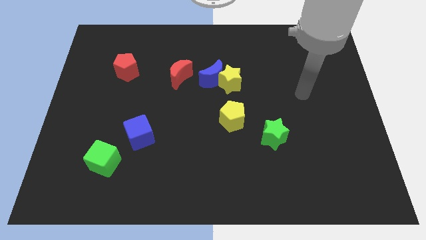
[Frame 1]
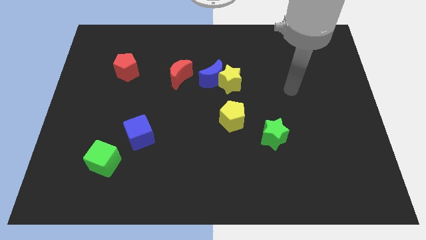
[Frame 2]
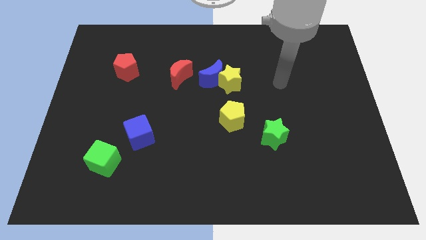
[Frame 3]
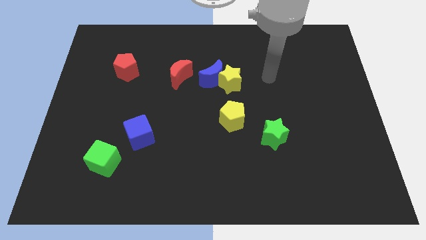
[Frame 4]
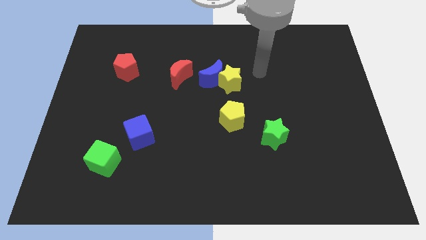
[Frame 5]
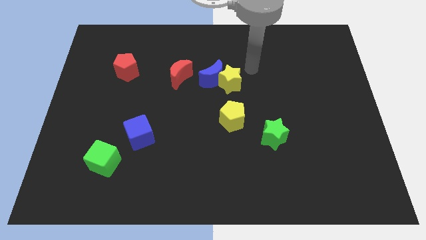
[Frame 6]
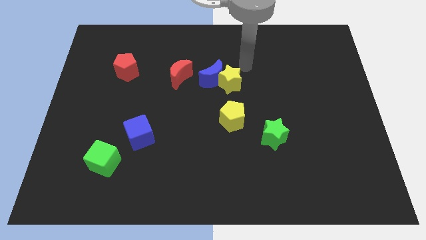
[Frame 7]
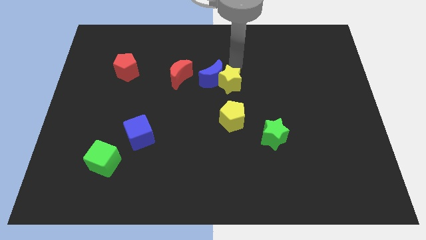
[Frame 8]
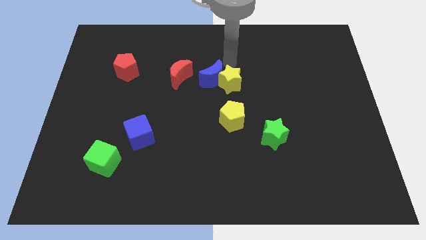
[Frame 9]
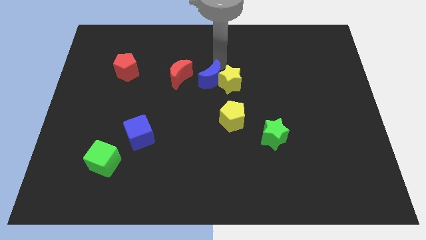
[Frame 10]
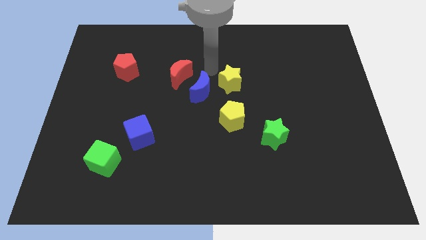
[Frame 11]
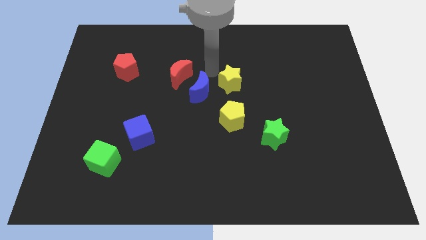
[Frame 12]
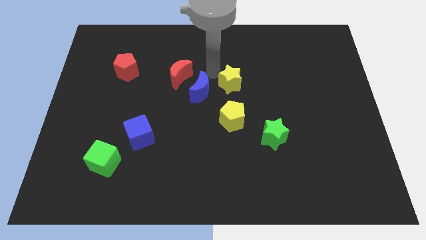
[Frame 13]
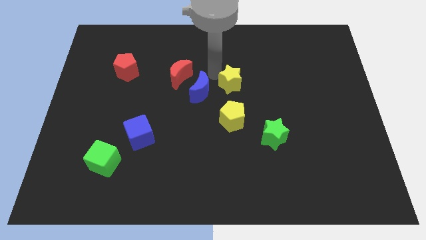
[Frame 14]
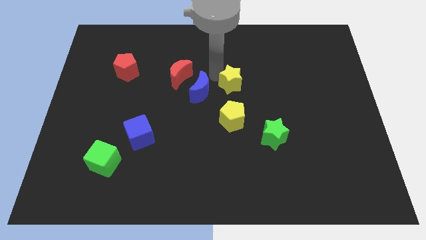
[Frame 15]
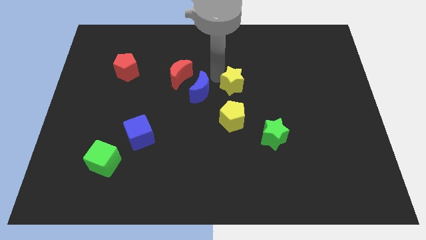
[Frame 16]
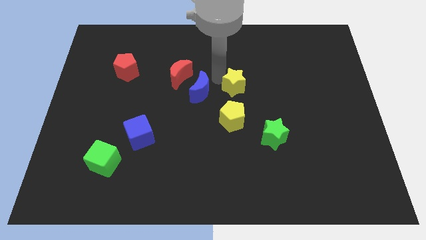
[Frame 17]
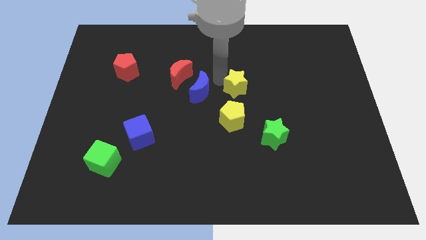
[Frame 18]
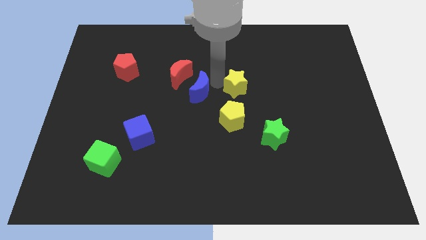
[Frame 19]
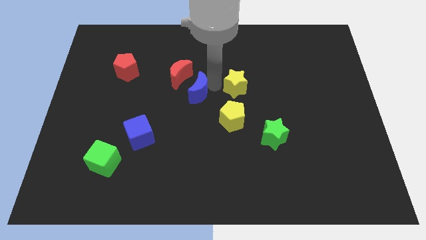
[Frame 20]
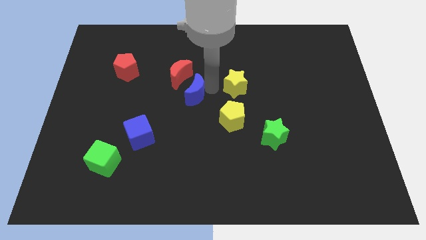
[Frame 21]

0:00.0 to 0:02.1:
move the yellow star away from the blue moon

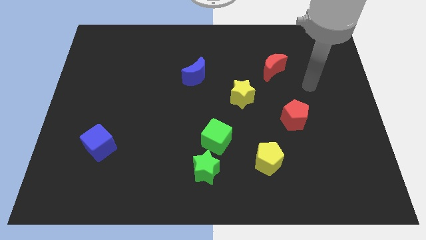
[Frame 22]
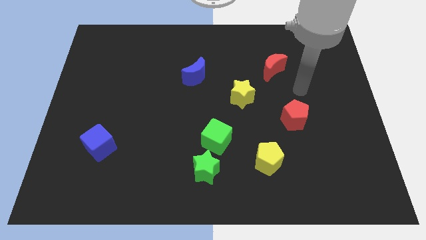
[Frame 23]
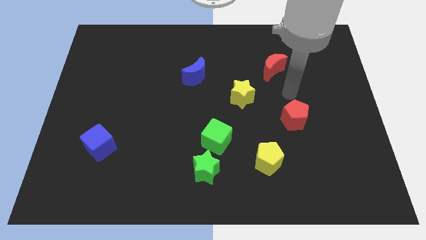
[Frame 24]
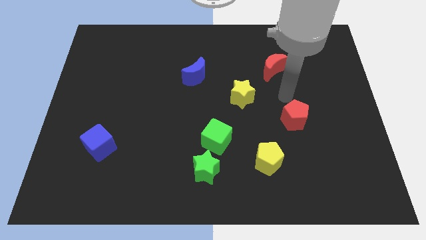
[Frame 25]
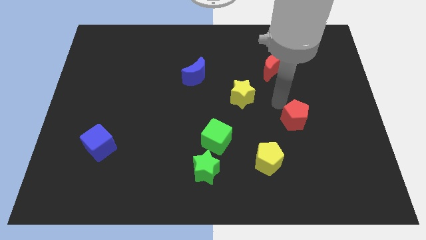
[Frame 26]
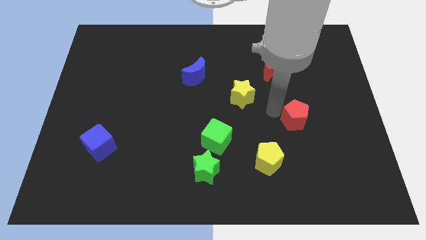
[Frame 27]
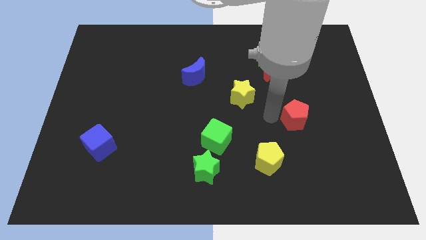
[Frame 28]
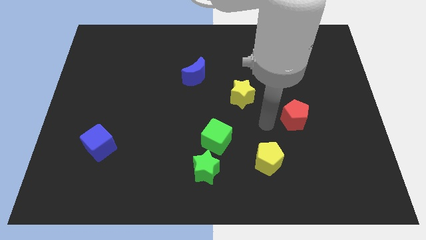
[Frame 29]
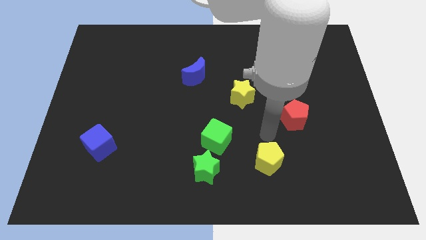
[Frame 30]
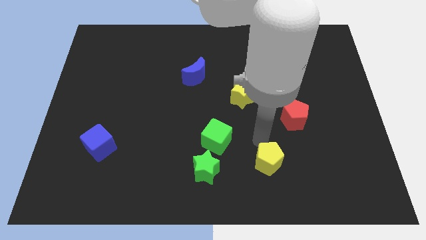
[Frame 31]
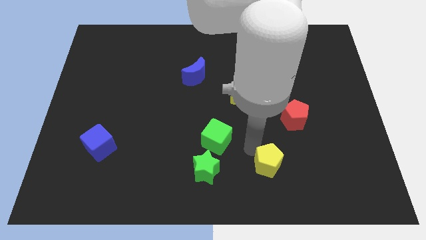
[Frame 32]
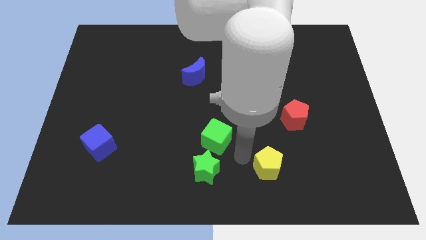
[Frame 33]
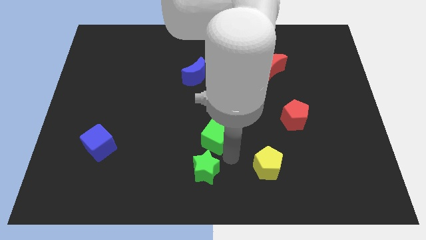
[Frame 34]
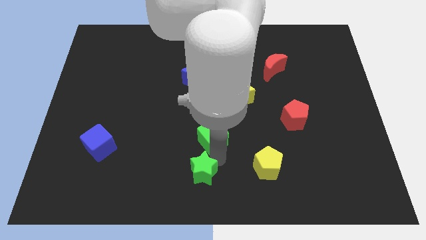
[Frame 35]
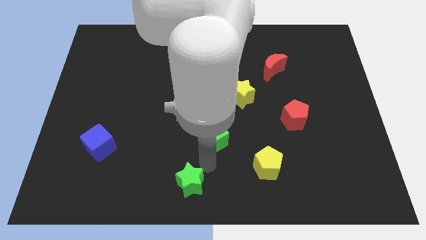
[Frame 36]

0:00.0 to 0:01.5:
pull the green cube apart from the green star

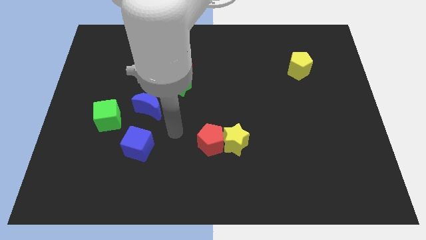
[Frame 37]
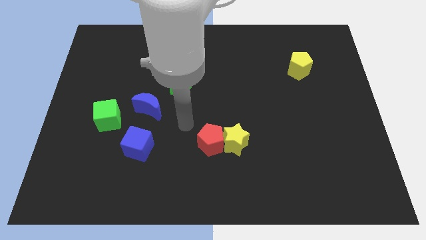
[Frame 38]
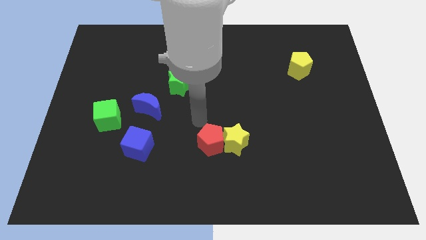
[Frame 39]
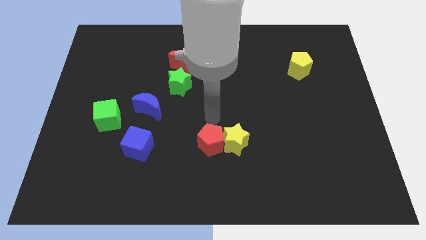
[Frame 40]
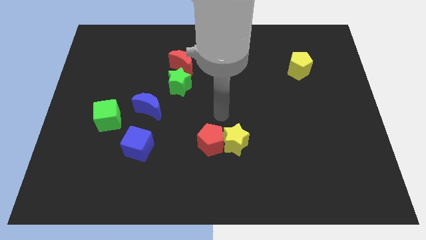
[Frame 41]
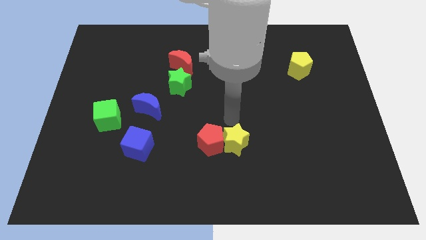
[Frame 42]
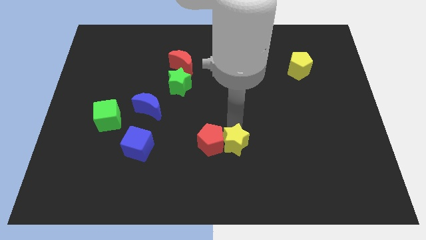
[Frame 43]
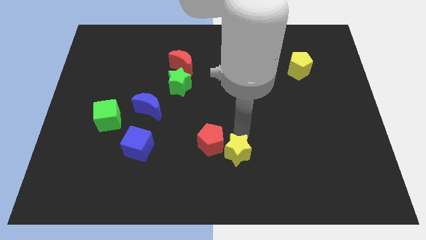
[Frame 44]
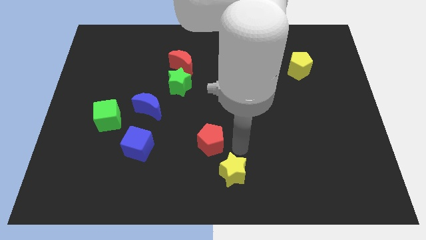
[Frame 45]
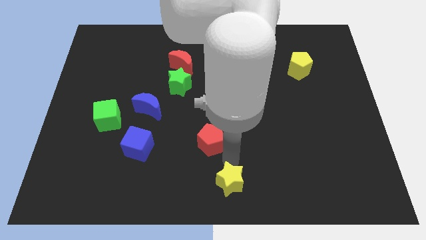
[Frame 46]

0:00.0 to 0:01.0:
pull the red pentagon apart from the yellow star

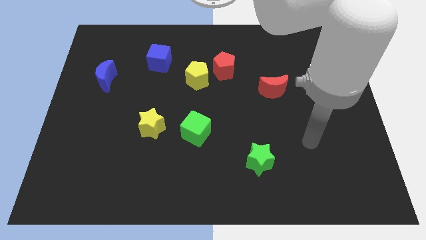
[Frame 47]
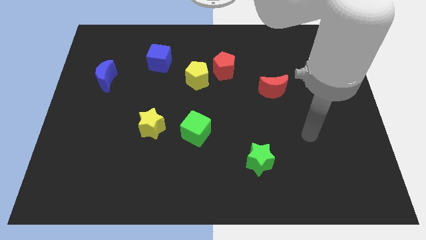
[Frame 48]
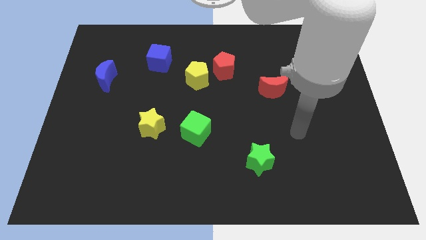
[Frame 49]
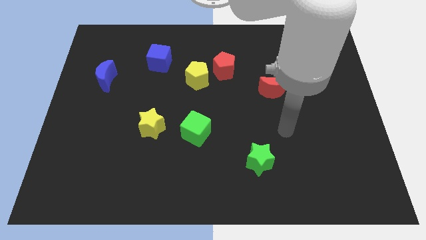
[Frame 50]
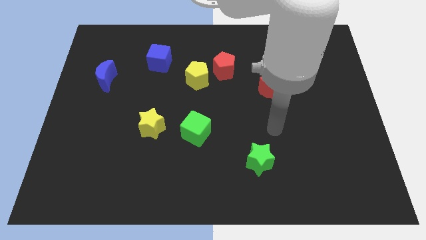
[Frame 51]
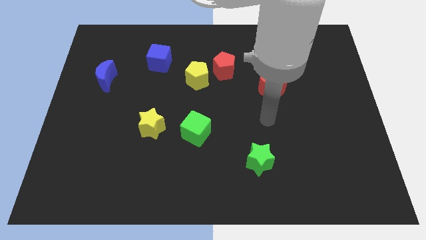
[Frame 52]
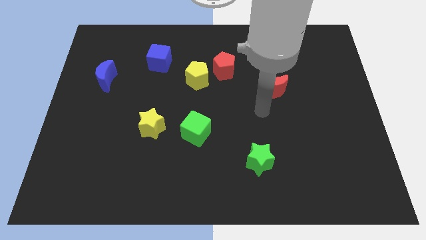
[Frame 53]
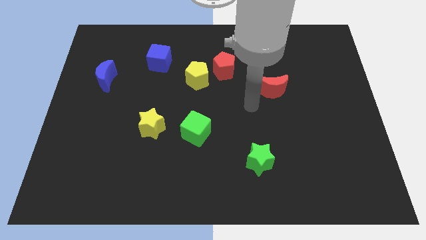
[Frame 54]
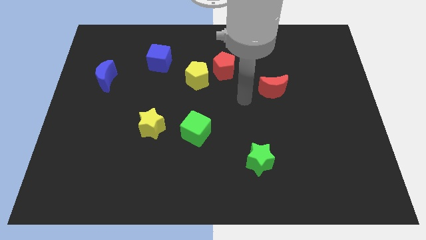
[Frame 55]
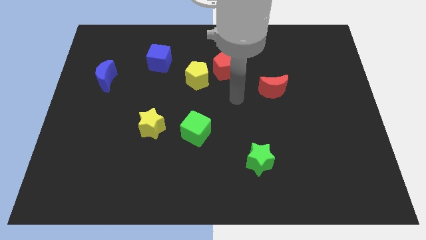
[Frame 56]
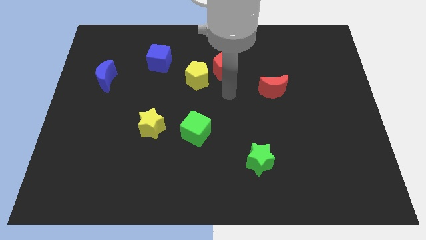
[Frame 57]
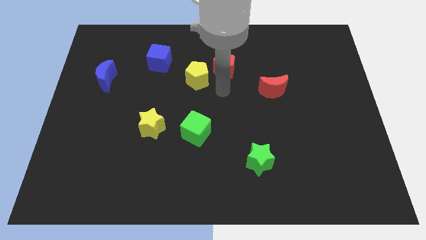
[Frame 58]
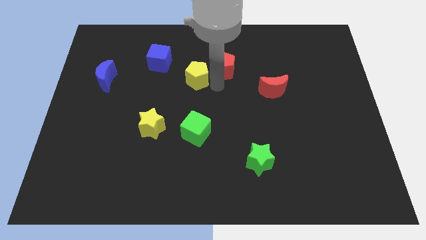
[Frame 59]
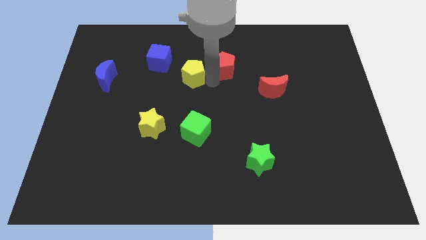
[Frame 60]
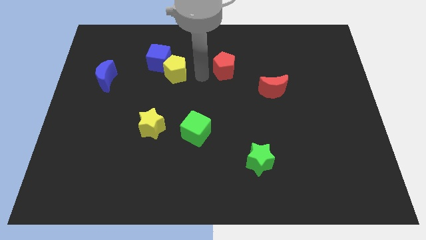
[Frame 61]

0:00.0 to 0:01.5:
separate the red pentagon from the yellow pentagon

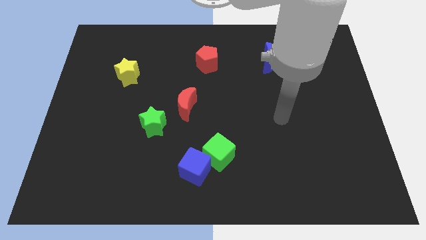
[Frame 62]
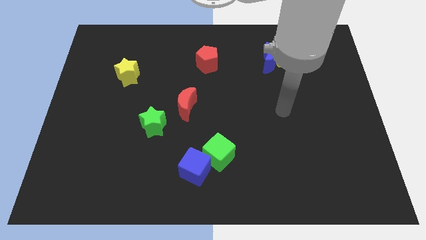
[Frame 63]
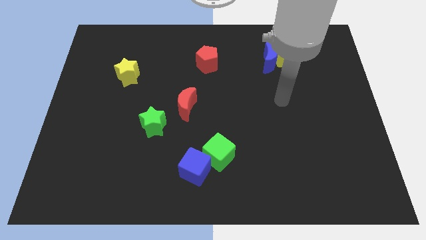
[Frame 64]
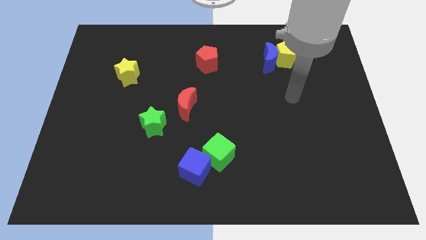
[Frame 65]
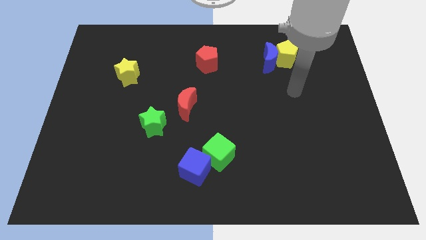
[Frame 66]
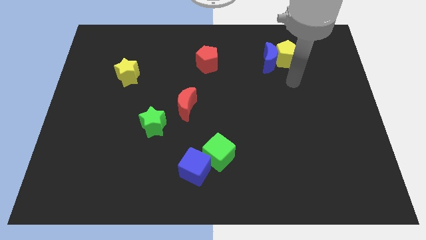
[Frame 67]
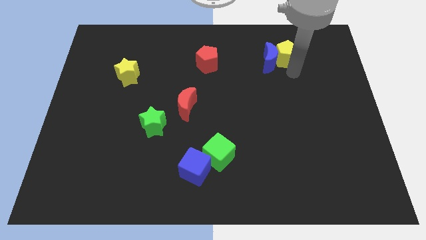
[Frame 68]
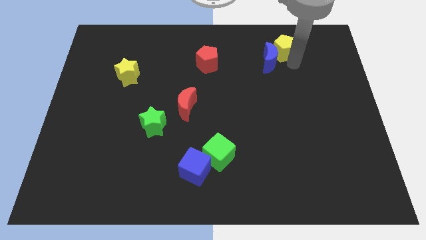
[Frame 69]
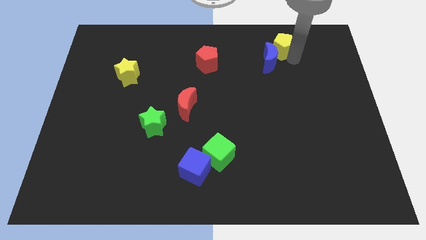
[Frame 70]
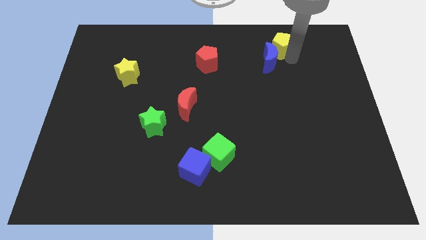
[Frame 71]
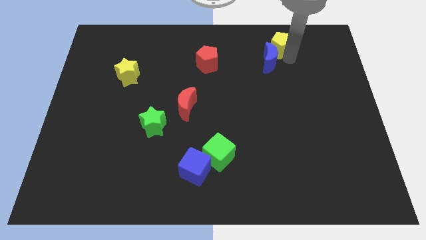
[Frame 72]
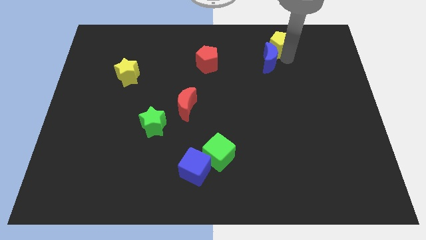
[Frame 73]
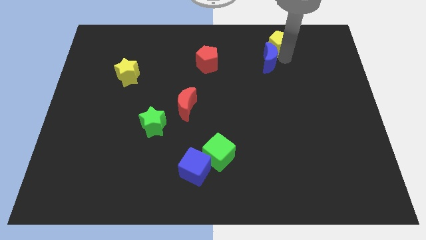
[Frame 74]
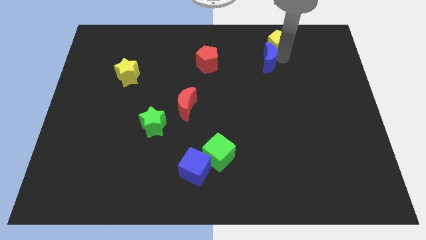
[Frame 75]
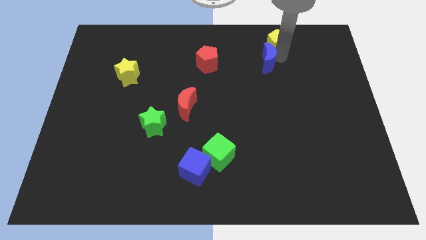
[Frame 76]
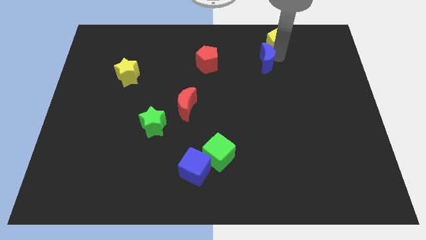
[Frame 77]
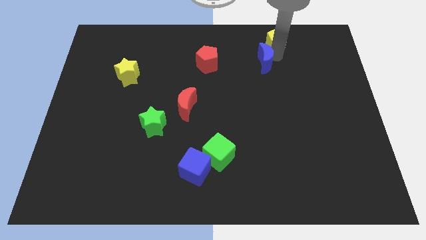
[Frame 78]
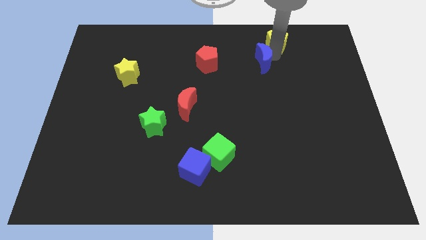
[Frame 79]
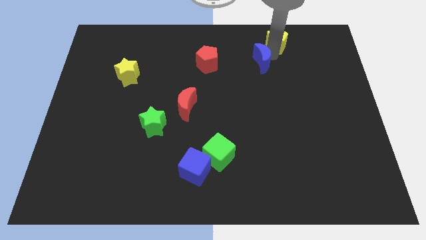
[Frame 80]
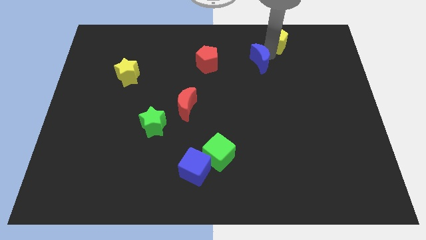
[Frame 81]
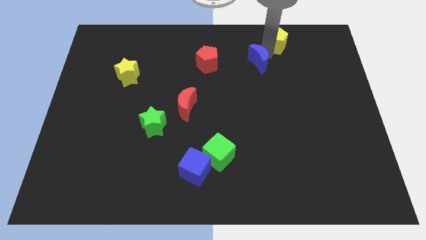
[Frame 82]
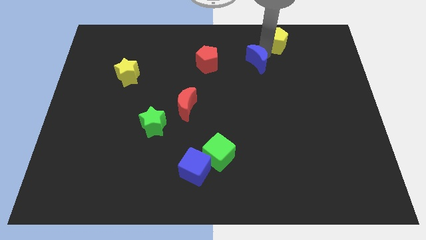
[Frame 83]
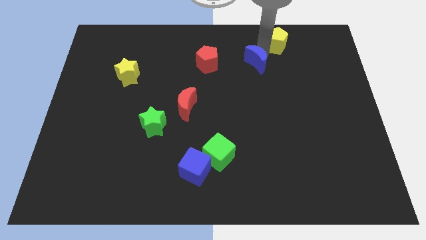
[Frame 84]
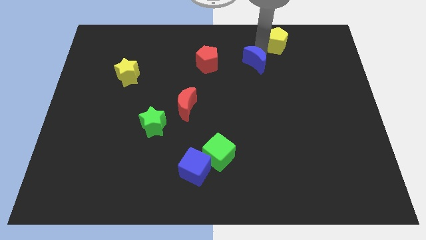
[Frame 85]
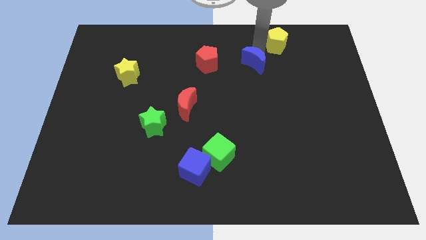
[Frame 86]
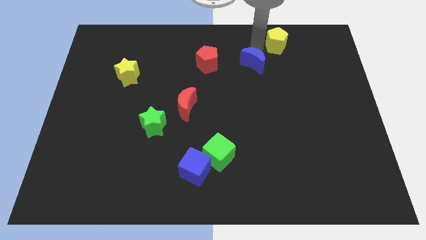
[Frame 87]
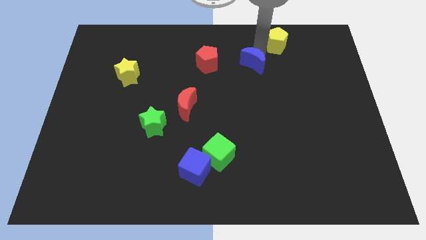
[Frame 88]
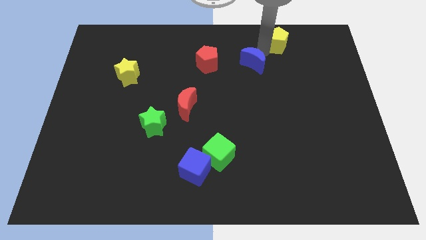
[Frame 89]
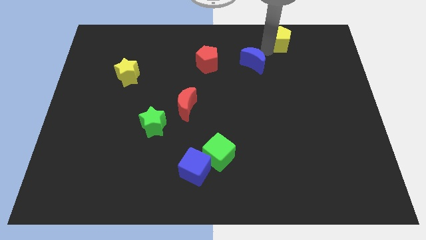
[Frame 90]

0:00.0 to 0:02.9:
pull the blue moon apart from the yellow pentagon

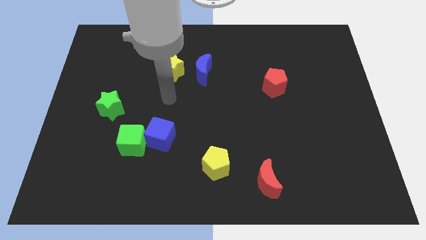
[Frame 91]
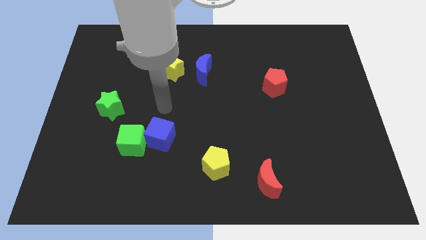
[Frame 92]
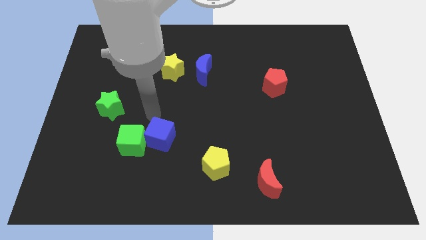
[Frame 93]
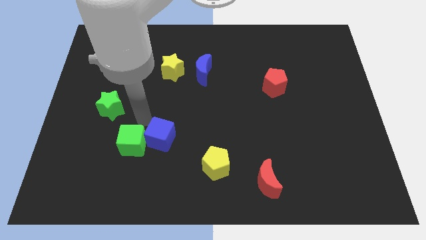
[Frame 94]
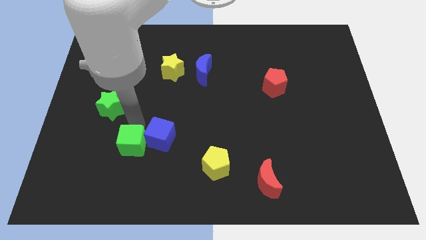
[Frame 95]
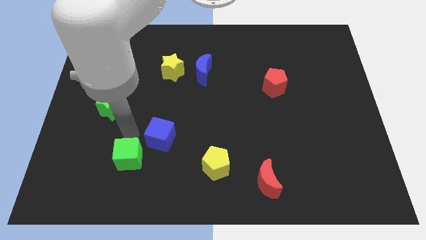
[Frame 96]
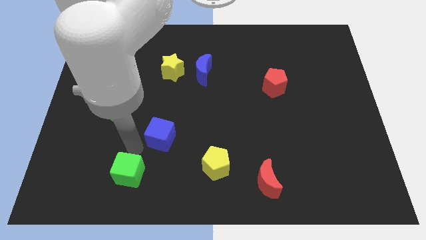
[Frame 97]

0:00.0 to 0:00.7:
pull the blue cube apart from the green cube
